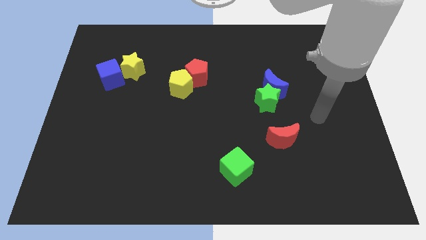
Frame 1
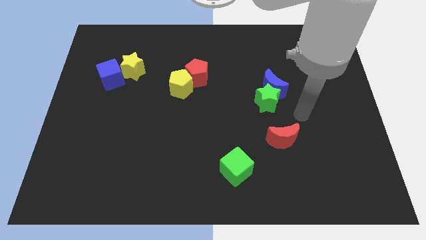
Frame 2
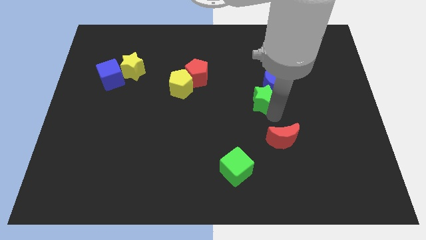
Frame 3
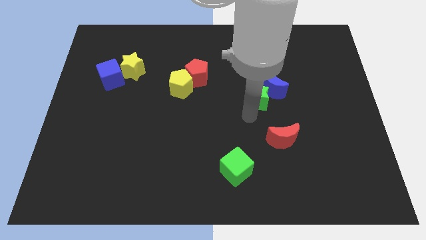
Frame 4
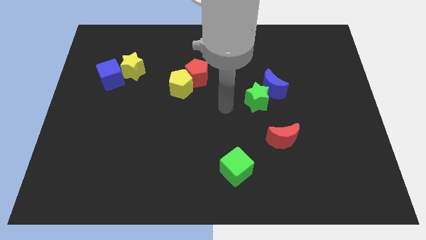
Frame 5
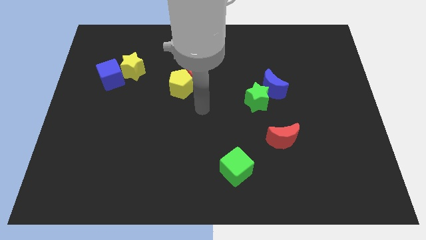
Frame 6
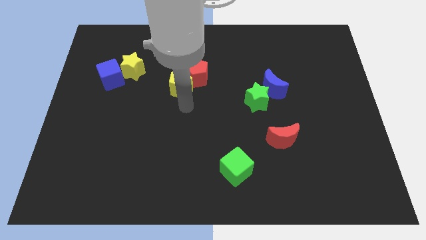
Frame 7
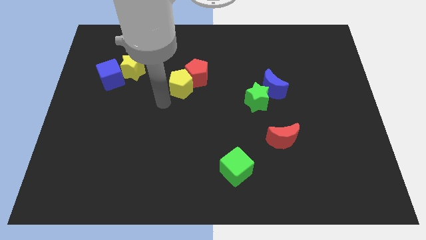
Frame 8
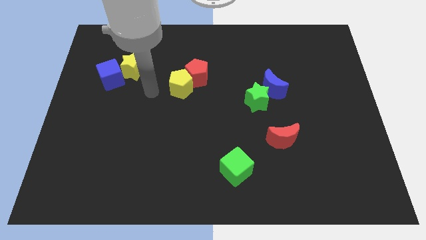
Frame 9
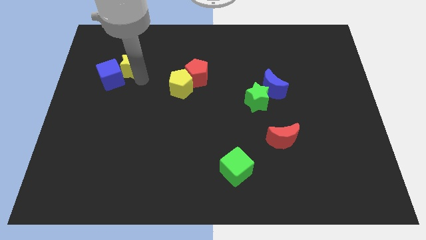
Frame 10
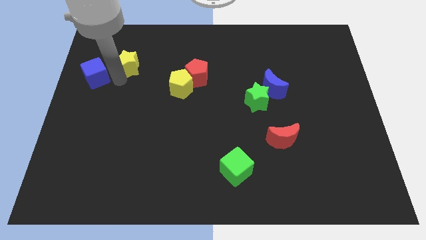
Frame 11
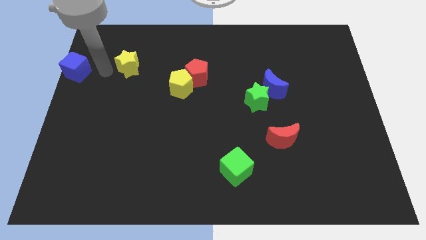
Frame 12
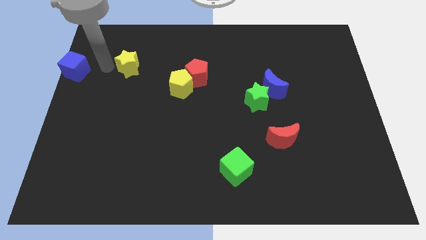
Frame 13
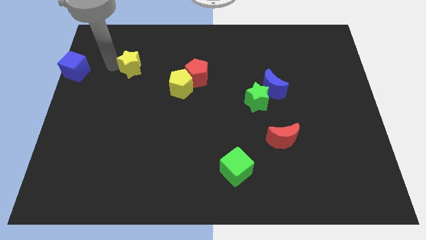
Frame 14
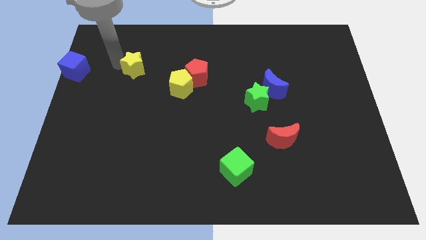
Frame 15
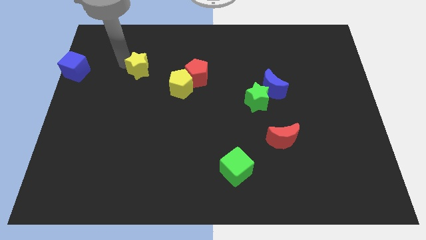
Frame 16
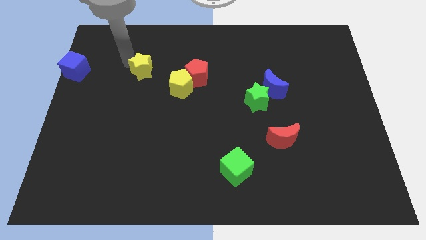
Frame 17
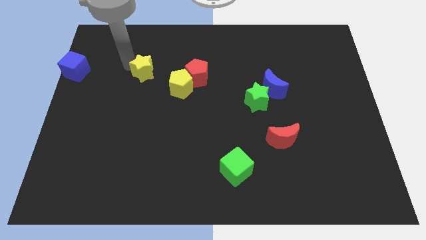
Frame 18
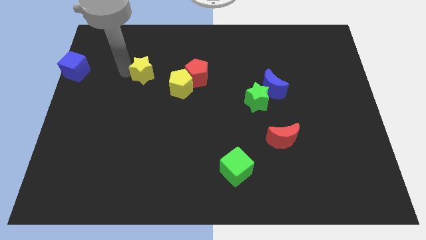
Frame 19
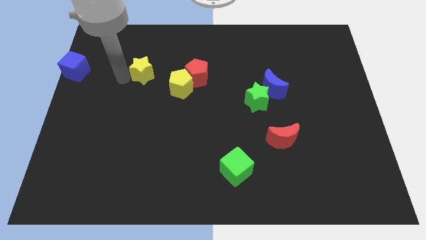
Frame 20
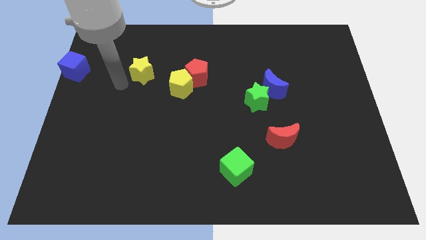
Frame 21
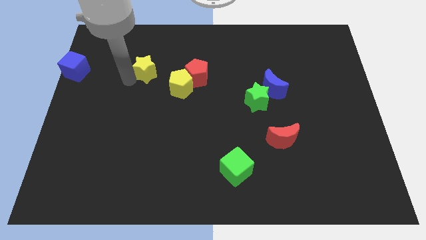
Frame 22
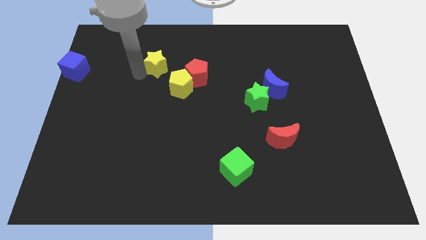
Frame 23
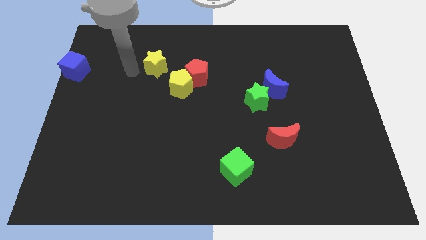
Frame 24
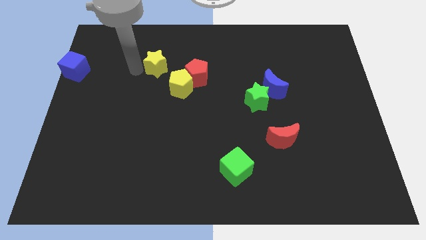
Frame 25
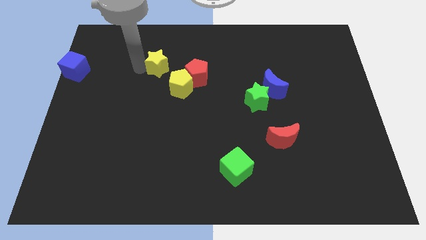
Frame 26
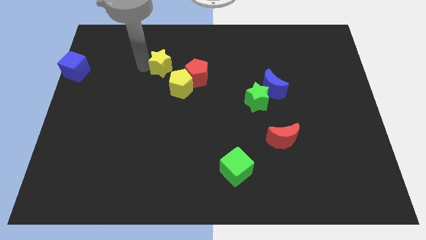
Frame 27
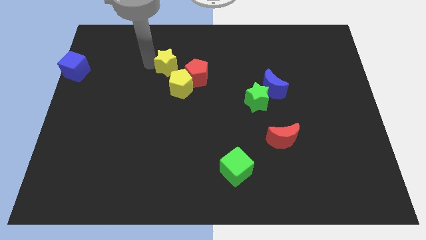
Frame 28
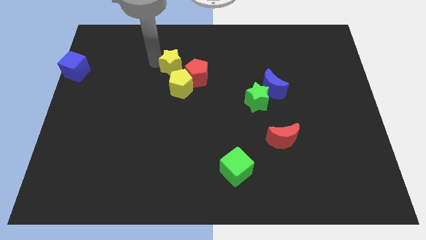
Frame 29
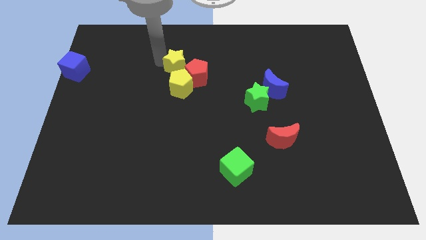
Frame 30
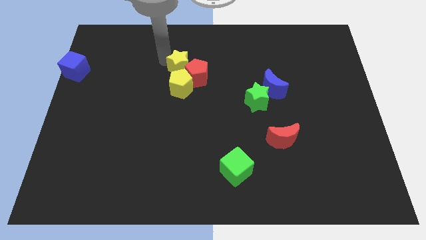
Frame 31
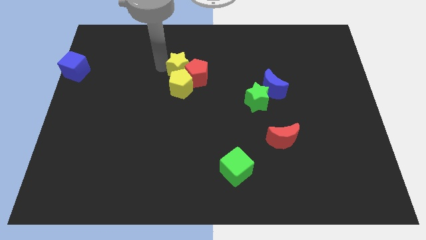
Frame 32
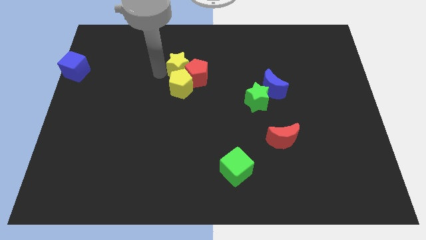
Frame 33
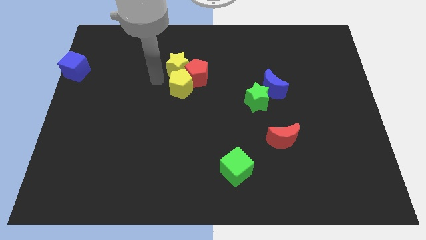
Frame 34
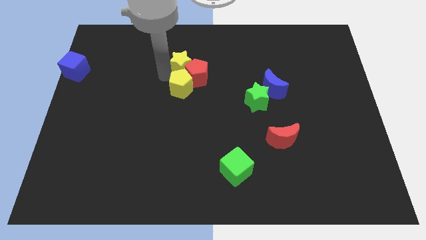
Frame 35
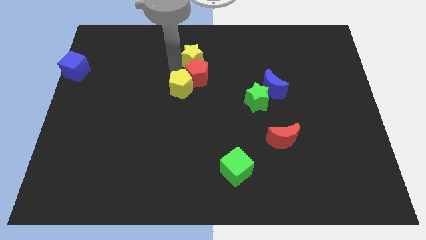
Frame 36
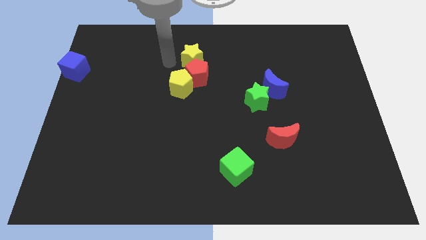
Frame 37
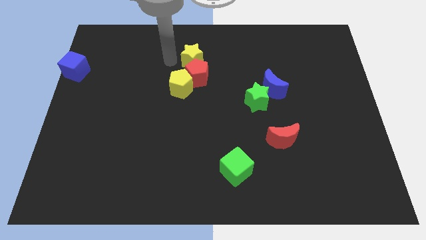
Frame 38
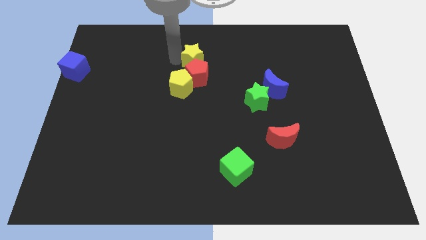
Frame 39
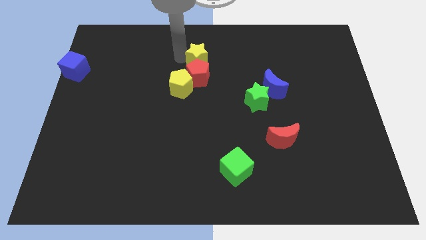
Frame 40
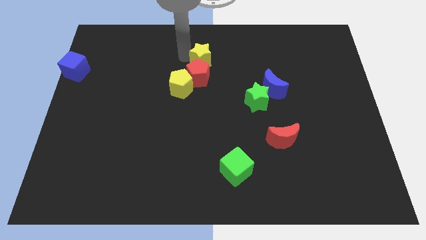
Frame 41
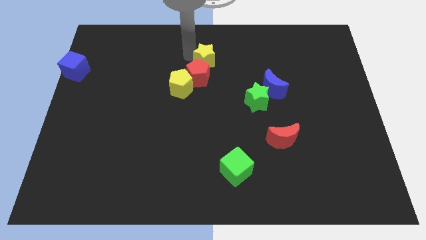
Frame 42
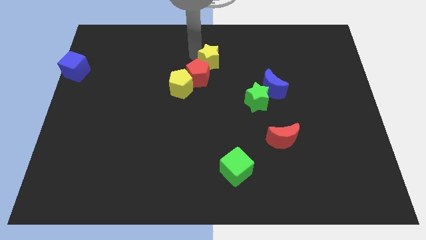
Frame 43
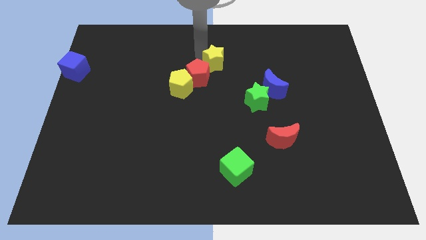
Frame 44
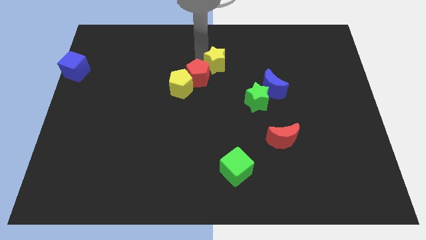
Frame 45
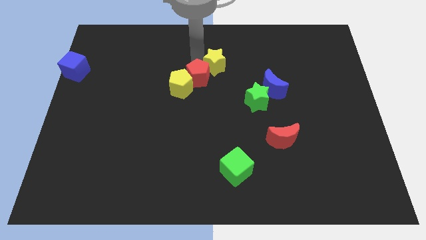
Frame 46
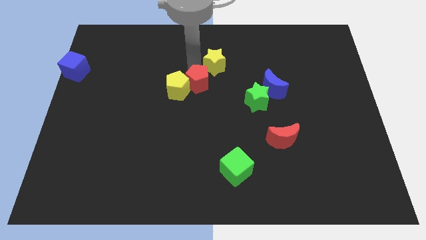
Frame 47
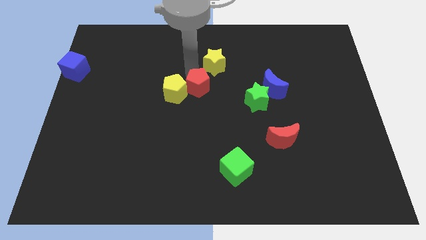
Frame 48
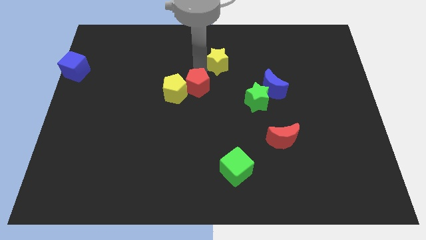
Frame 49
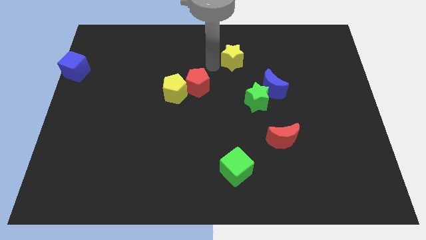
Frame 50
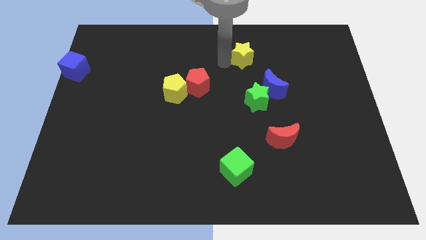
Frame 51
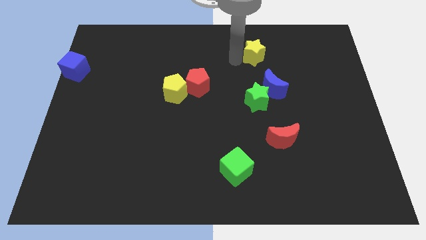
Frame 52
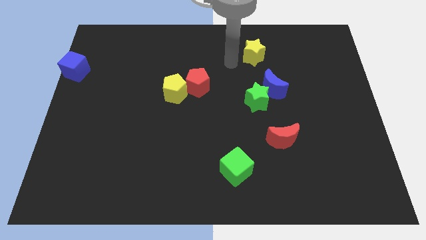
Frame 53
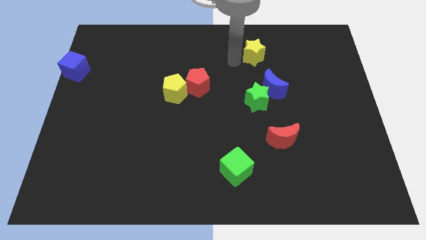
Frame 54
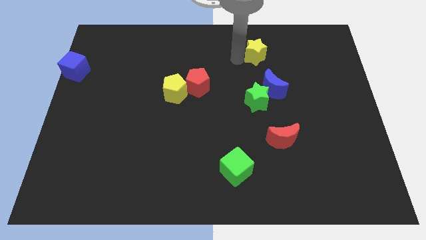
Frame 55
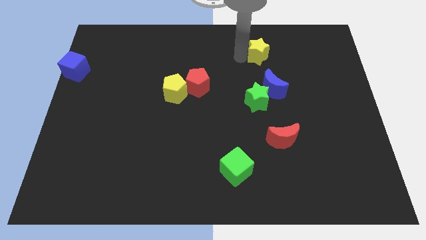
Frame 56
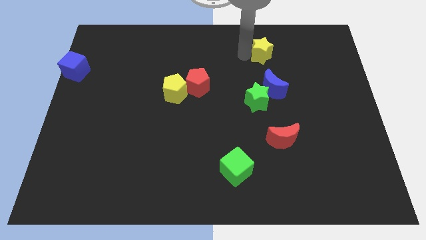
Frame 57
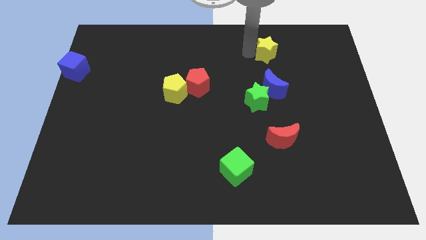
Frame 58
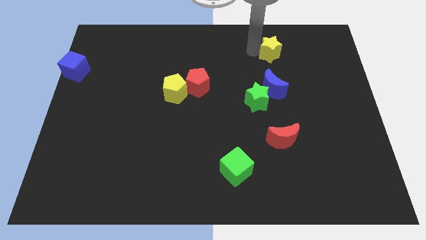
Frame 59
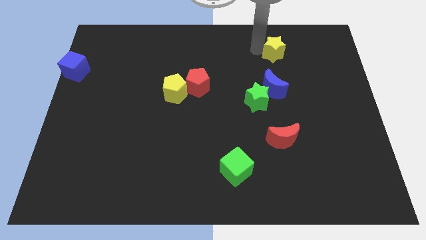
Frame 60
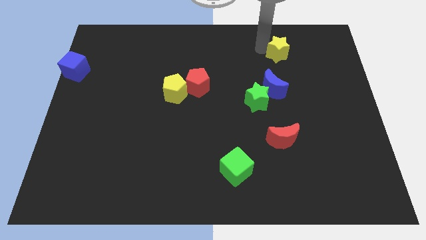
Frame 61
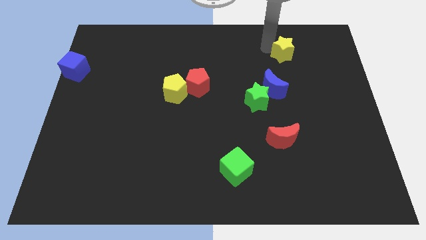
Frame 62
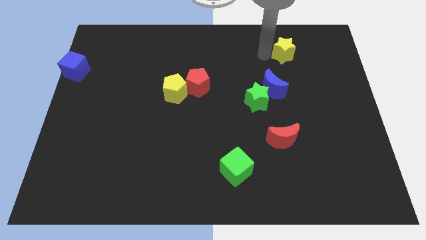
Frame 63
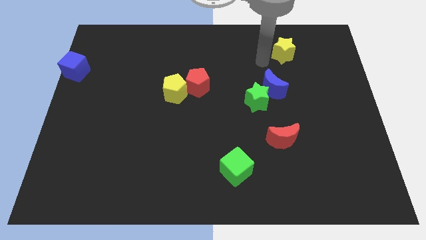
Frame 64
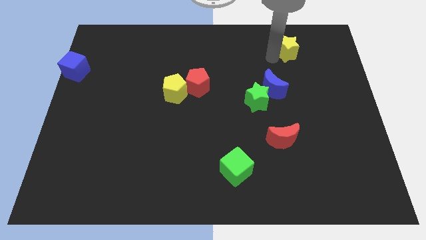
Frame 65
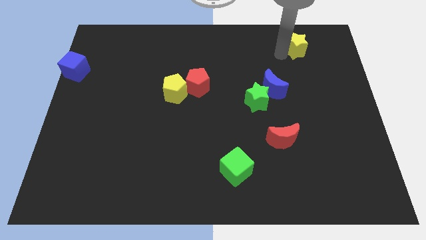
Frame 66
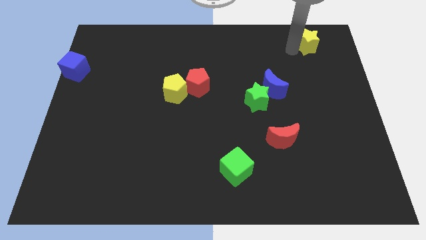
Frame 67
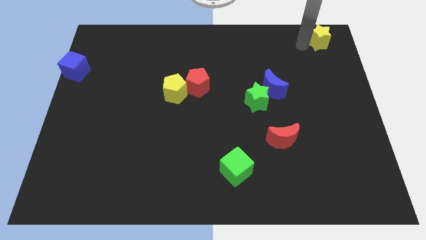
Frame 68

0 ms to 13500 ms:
slide the yellow star to the top right corner

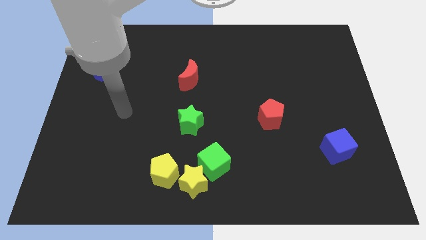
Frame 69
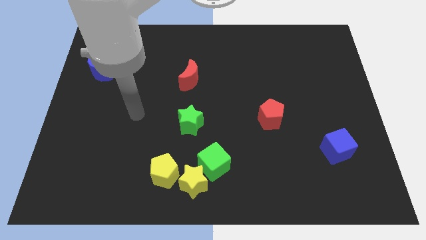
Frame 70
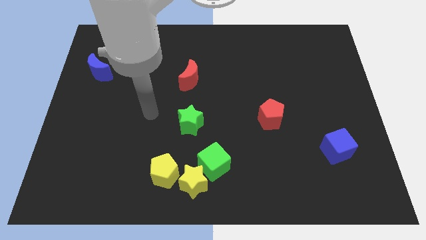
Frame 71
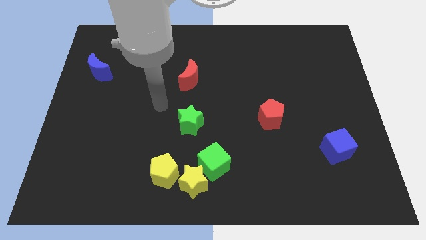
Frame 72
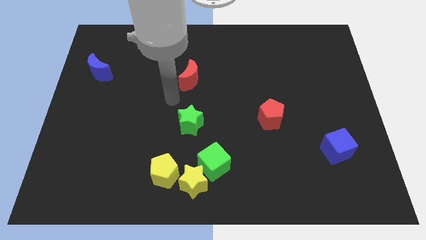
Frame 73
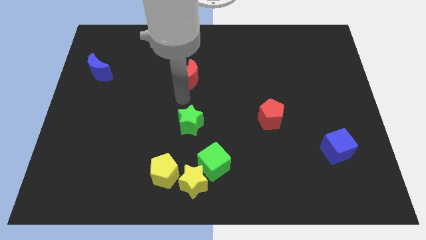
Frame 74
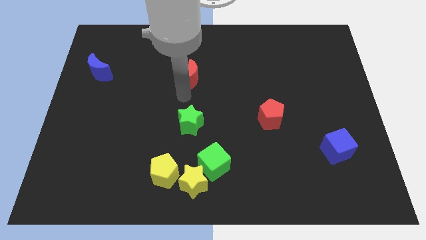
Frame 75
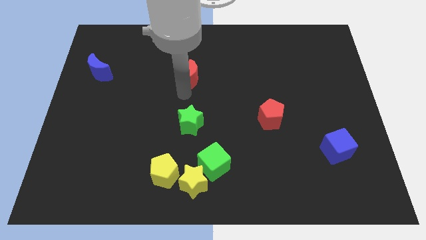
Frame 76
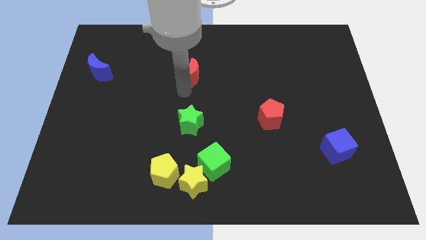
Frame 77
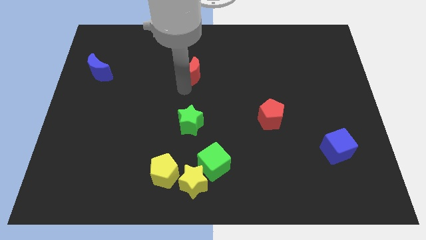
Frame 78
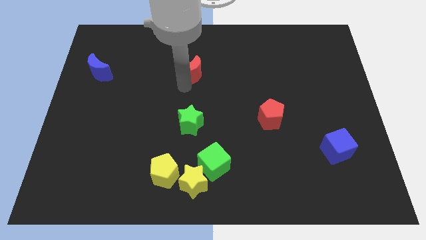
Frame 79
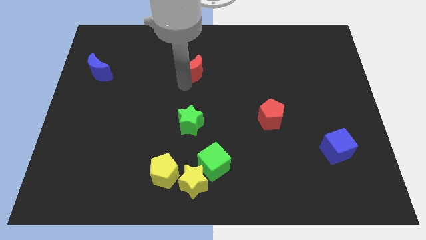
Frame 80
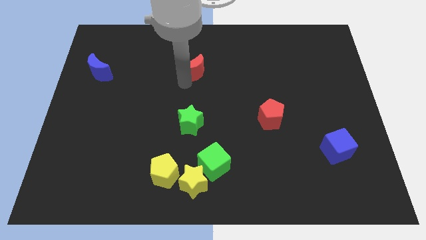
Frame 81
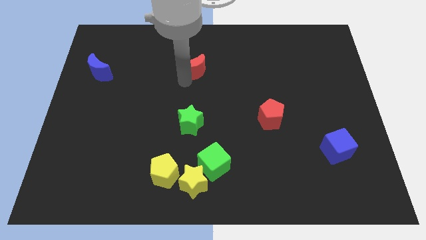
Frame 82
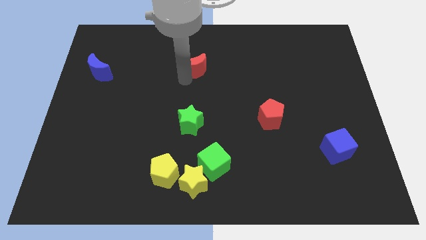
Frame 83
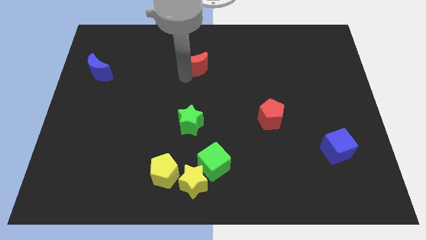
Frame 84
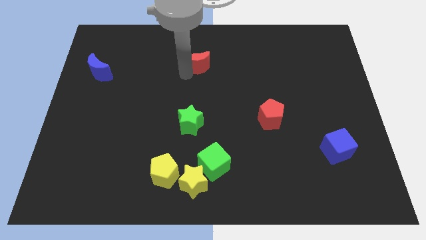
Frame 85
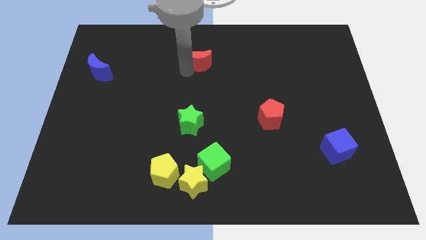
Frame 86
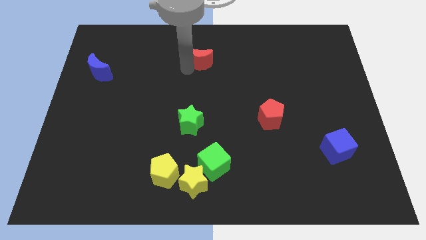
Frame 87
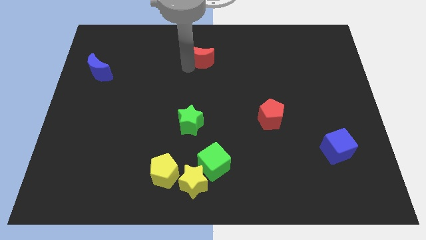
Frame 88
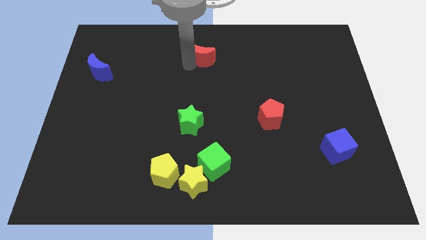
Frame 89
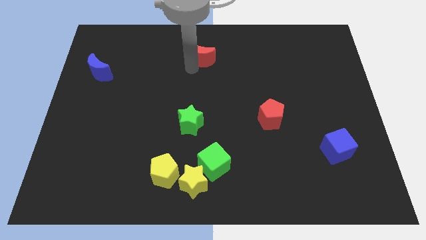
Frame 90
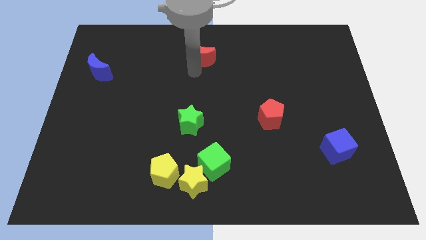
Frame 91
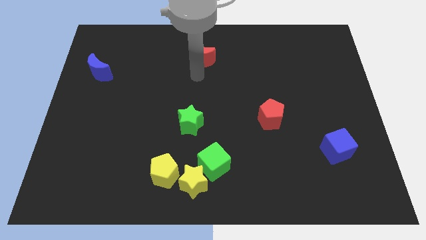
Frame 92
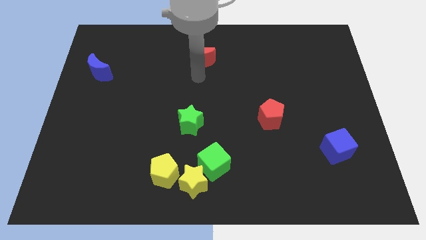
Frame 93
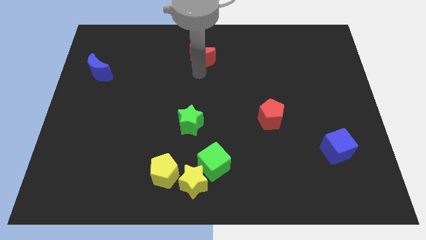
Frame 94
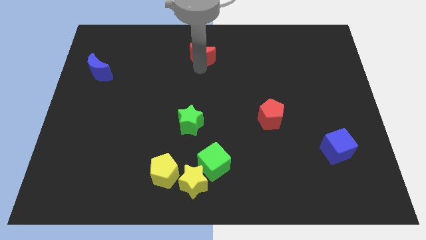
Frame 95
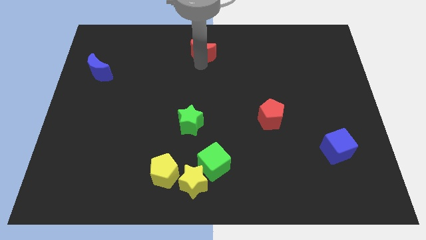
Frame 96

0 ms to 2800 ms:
move the red moon to the top side
